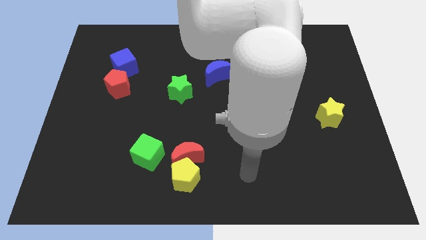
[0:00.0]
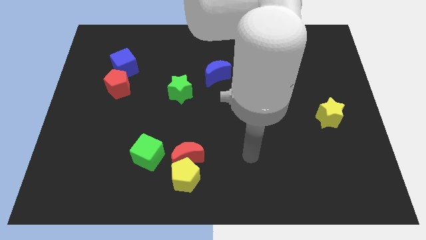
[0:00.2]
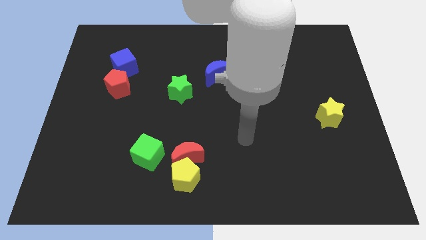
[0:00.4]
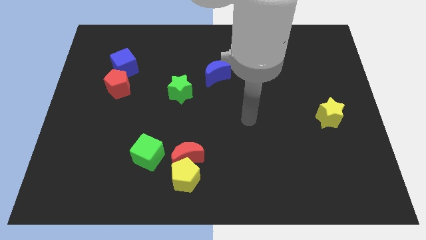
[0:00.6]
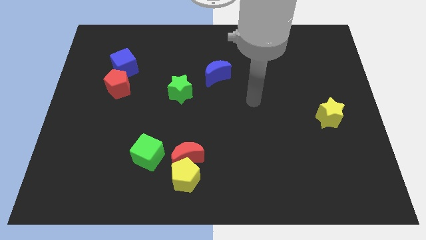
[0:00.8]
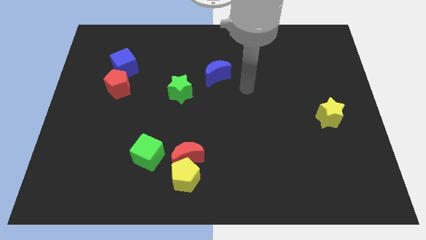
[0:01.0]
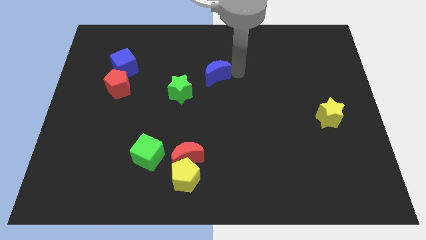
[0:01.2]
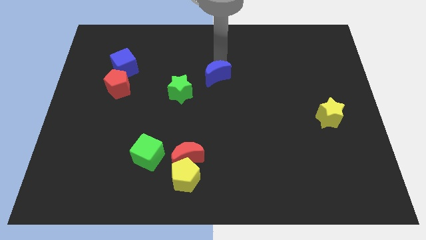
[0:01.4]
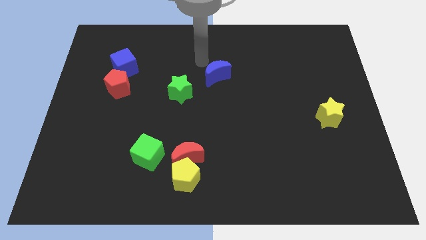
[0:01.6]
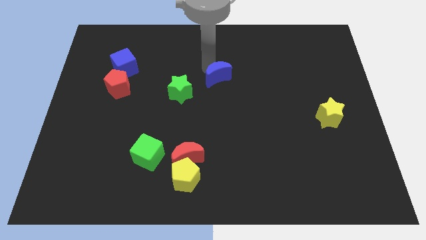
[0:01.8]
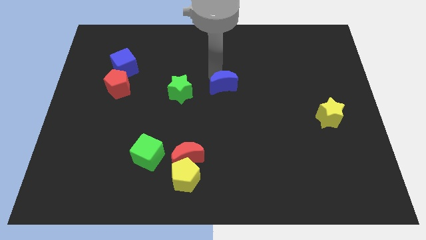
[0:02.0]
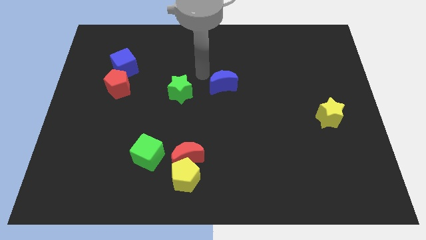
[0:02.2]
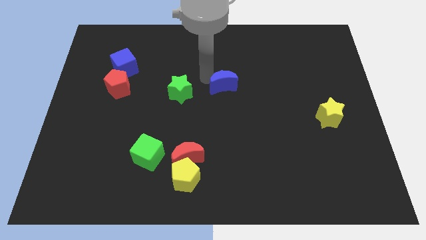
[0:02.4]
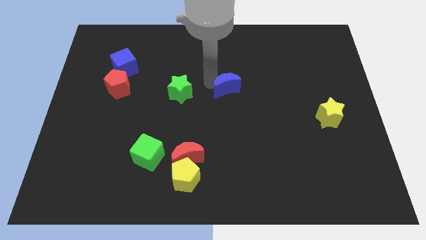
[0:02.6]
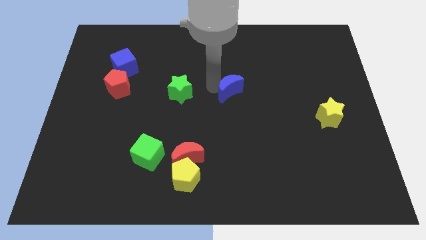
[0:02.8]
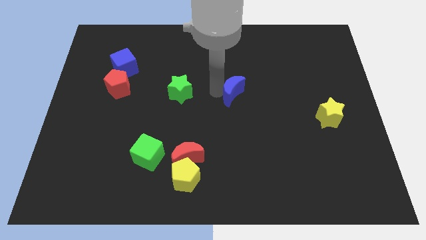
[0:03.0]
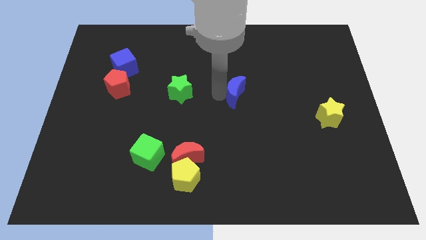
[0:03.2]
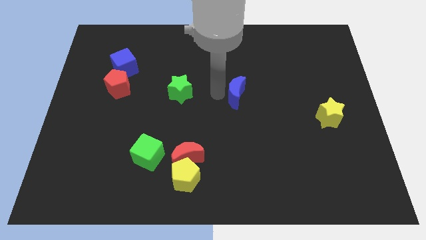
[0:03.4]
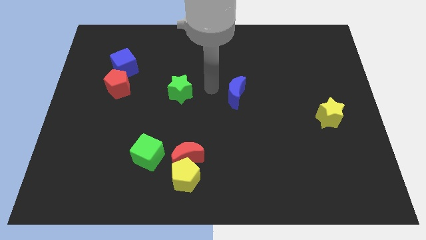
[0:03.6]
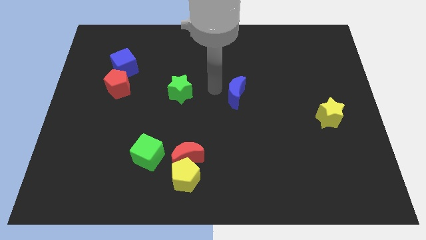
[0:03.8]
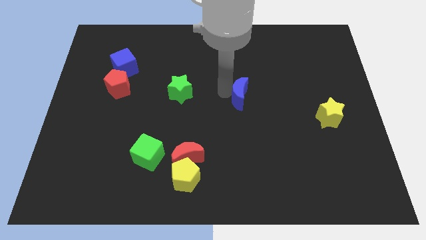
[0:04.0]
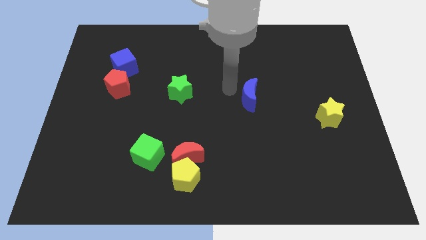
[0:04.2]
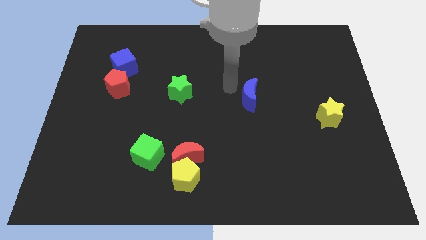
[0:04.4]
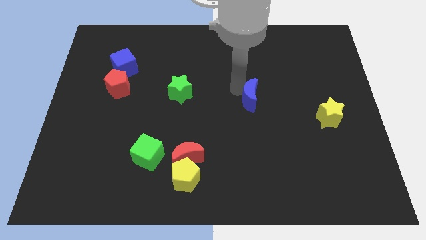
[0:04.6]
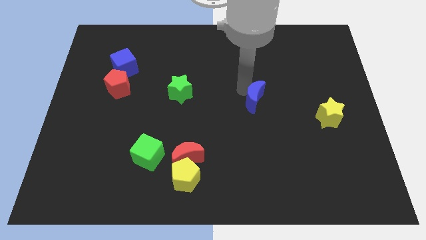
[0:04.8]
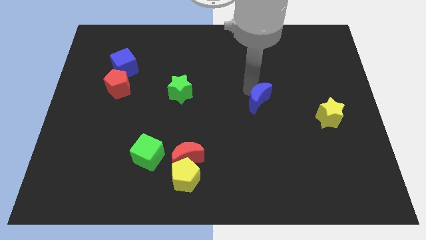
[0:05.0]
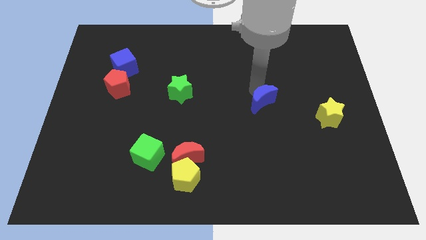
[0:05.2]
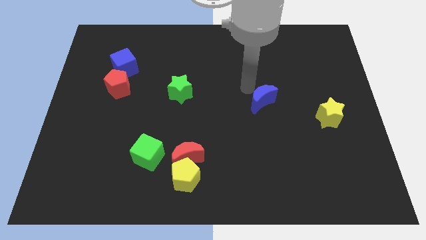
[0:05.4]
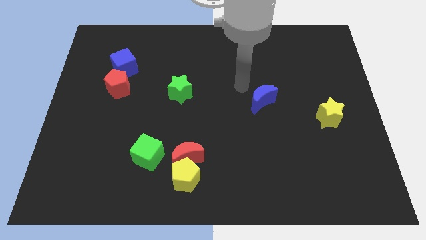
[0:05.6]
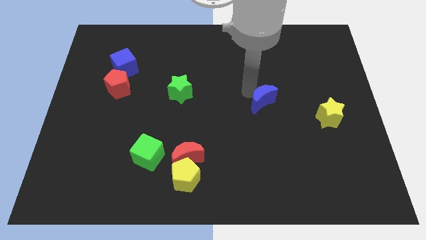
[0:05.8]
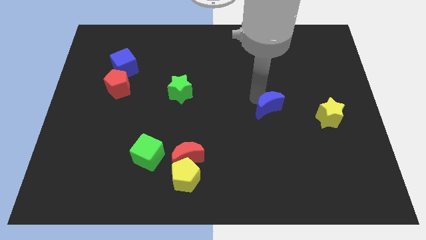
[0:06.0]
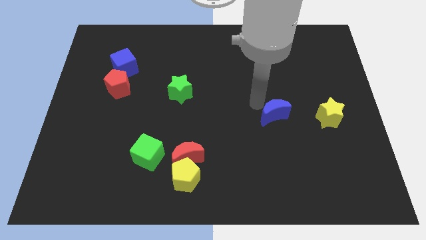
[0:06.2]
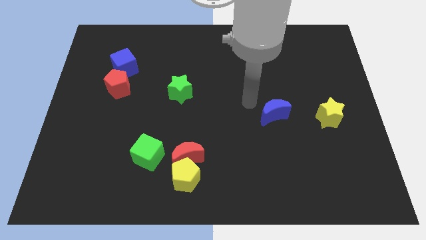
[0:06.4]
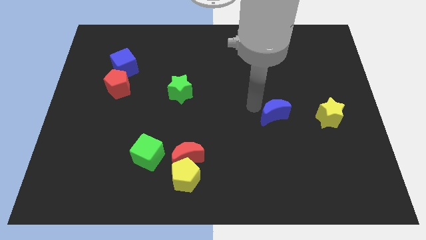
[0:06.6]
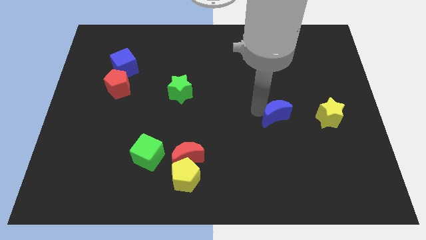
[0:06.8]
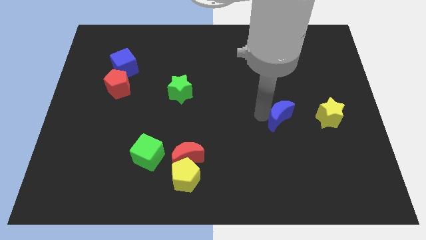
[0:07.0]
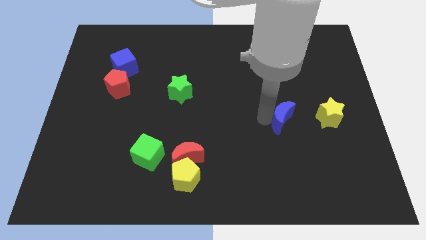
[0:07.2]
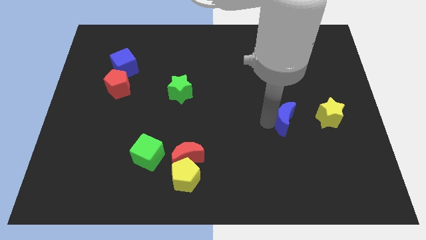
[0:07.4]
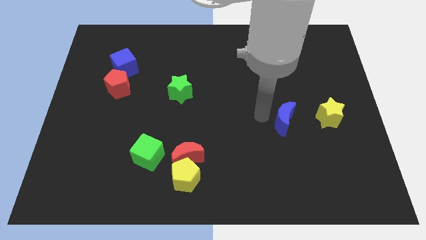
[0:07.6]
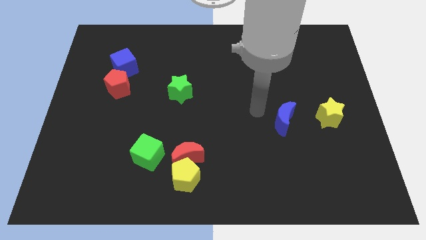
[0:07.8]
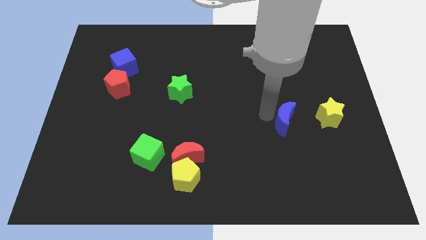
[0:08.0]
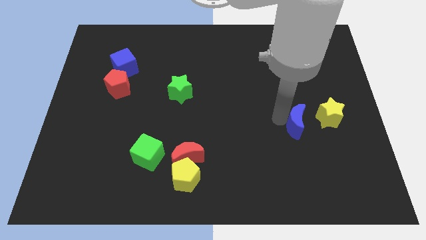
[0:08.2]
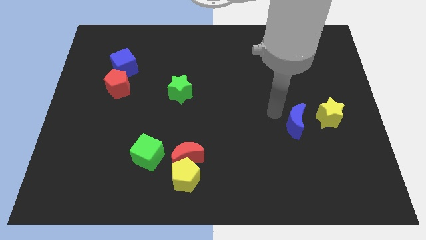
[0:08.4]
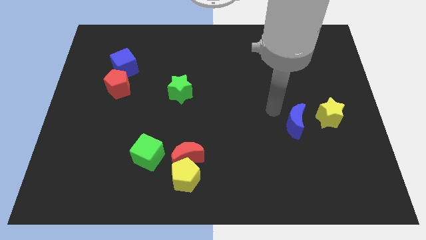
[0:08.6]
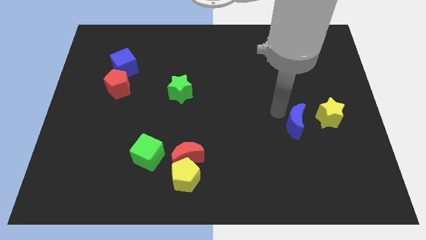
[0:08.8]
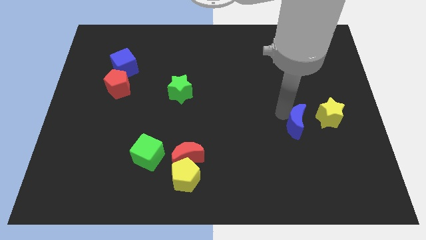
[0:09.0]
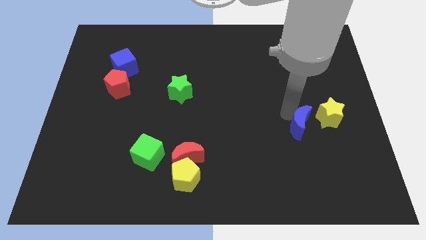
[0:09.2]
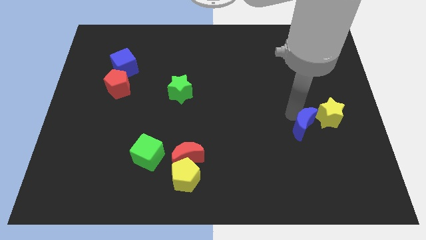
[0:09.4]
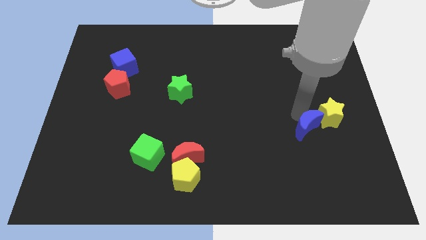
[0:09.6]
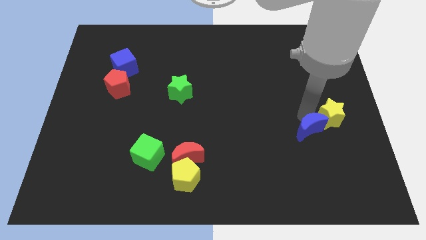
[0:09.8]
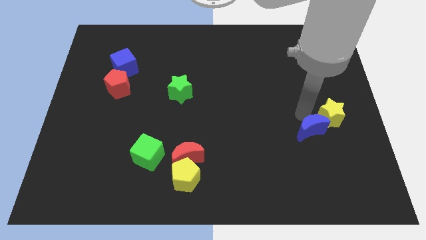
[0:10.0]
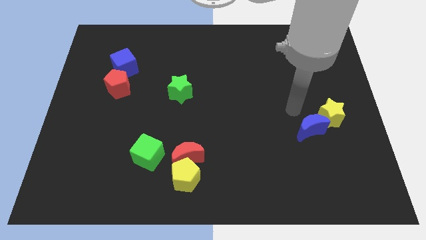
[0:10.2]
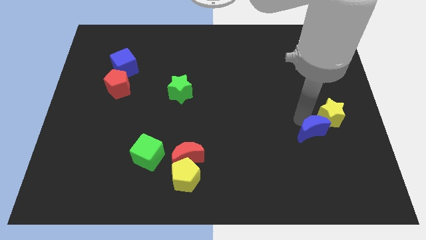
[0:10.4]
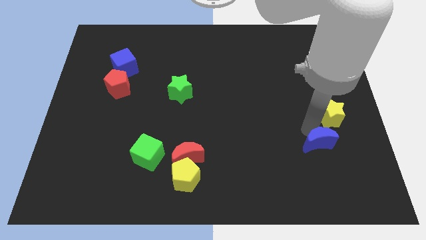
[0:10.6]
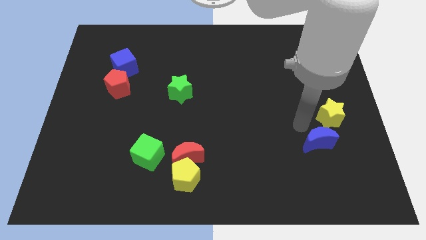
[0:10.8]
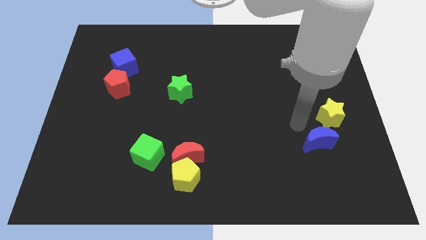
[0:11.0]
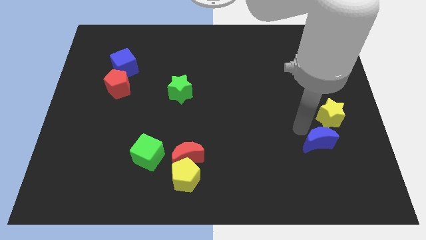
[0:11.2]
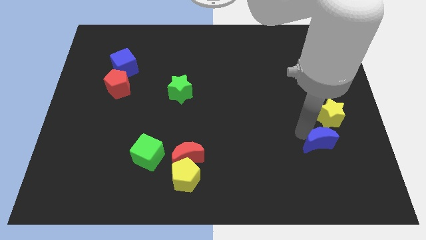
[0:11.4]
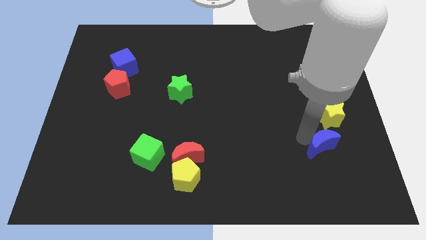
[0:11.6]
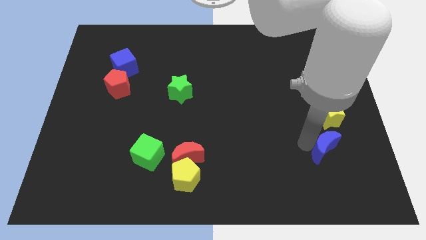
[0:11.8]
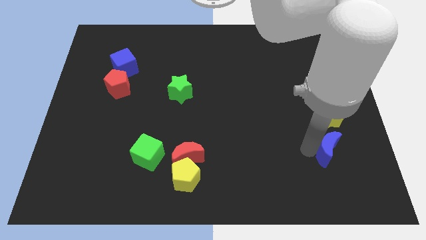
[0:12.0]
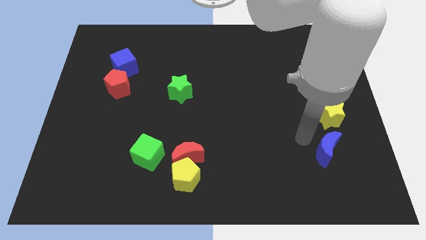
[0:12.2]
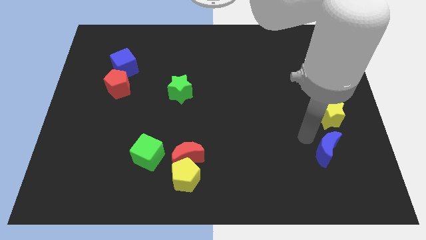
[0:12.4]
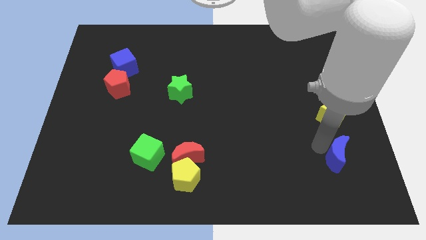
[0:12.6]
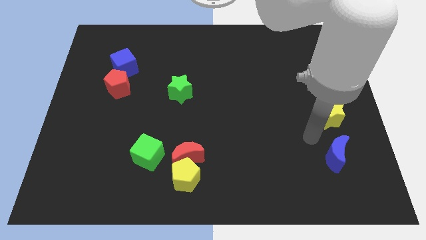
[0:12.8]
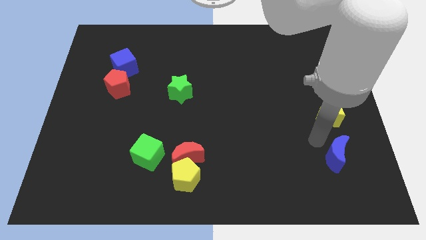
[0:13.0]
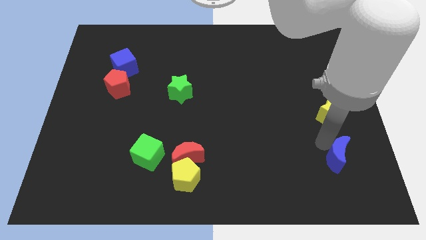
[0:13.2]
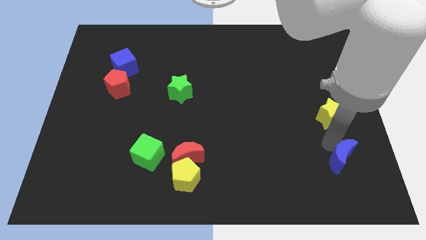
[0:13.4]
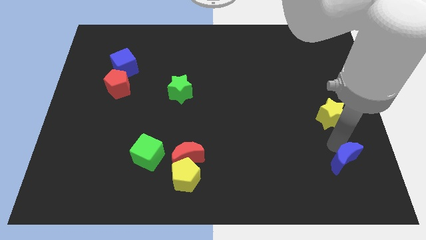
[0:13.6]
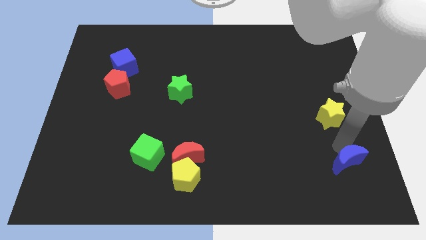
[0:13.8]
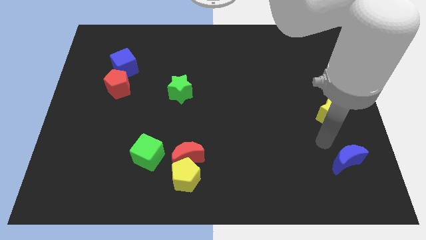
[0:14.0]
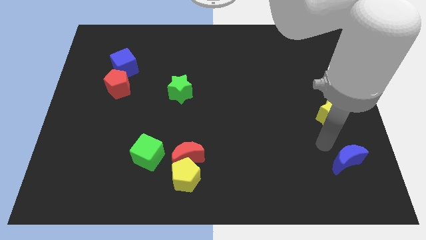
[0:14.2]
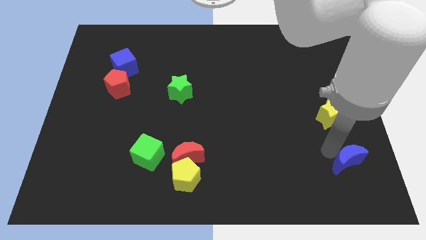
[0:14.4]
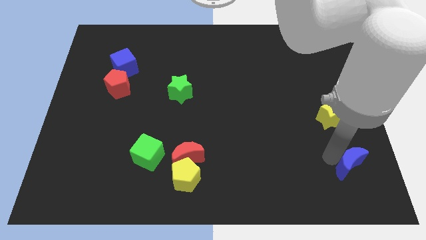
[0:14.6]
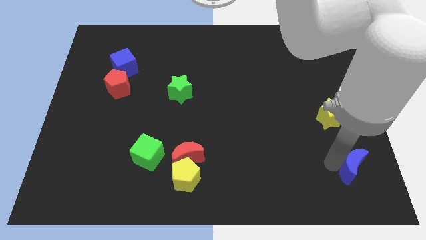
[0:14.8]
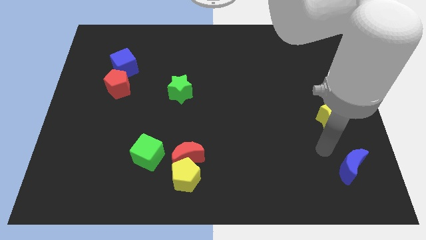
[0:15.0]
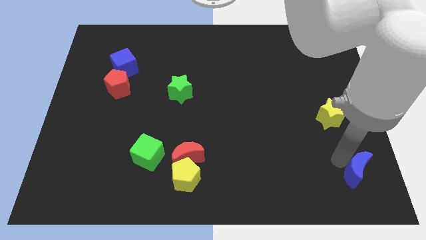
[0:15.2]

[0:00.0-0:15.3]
put the blue moon to the bottom right corner
